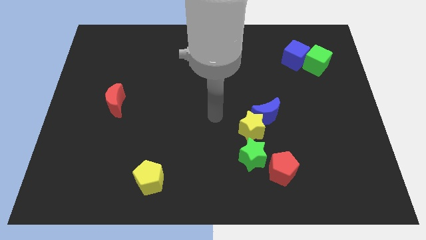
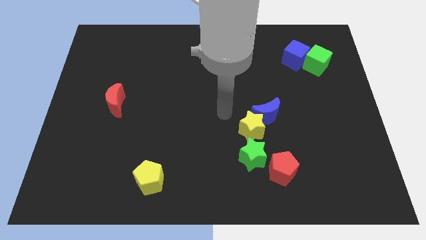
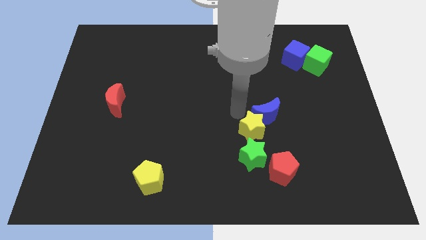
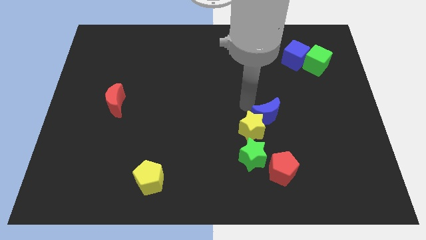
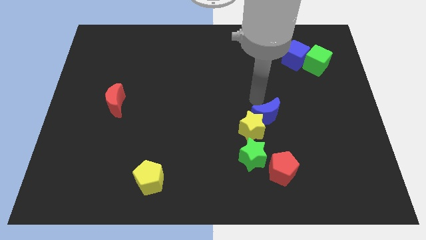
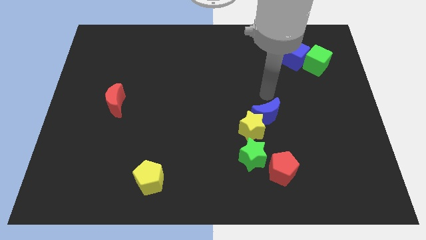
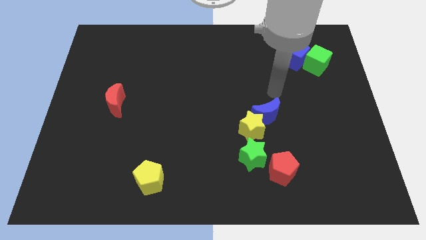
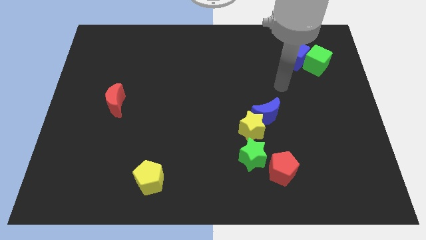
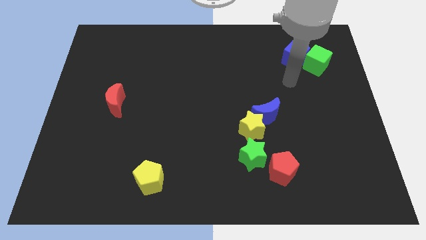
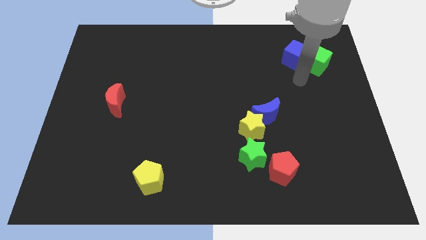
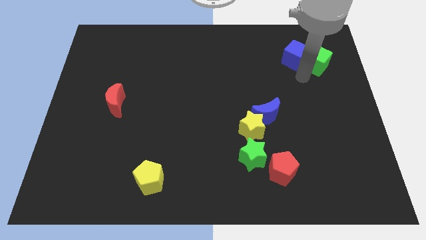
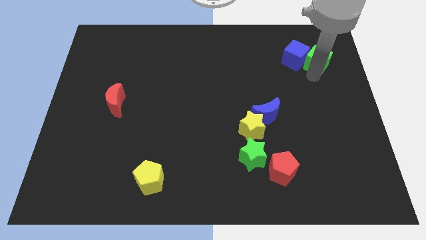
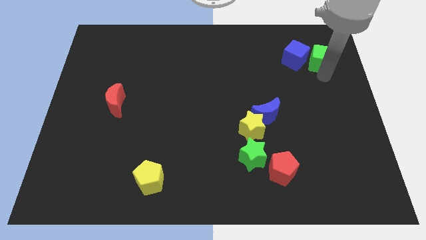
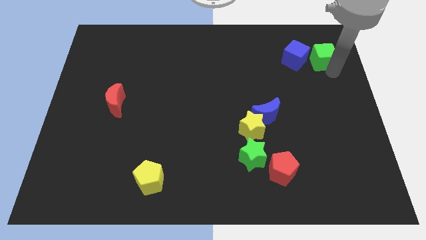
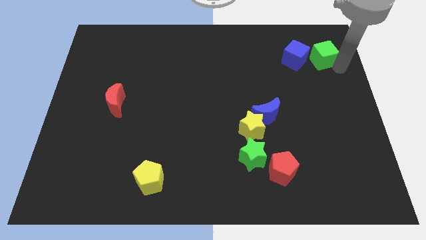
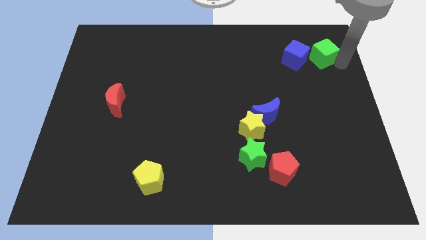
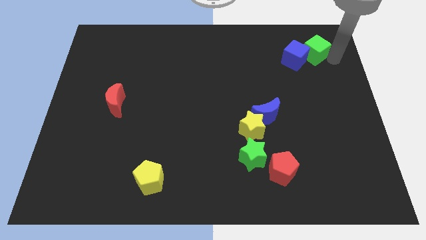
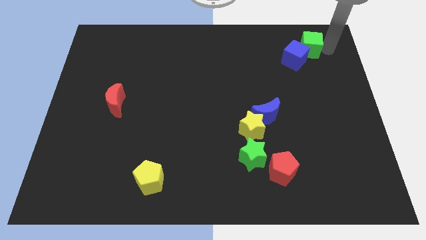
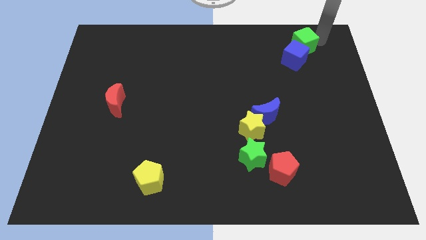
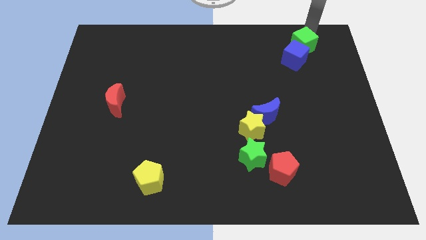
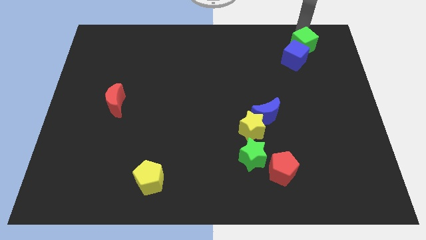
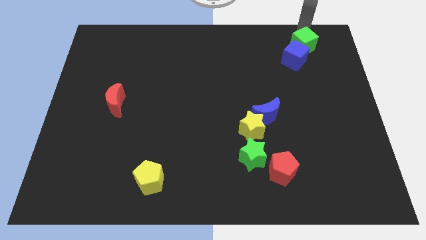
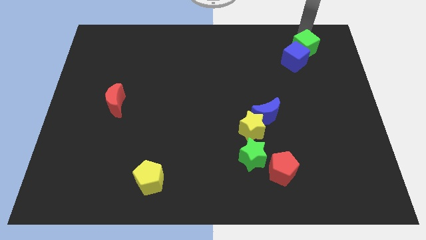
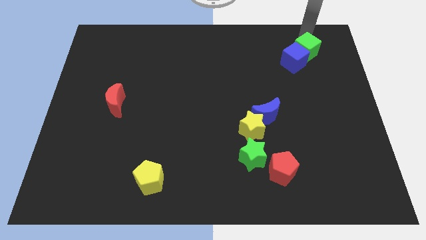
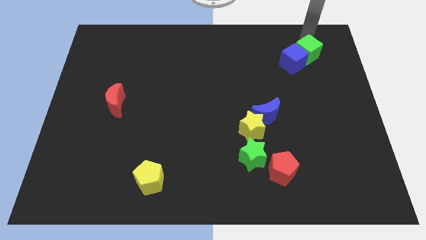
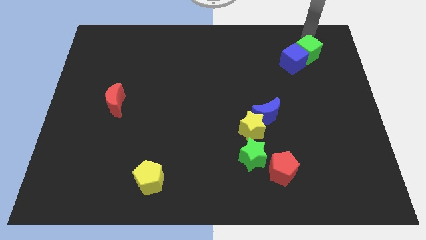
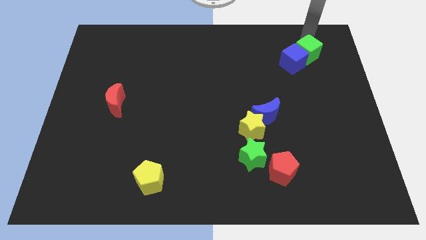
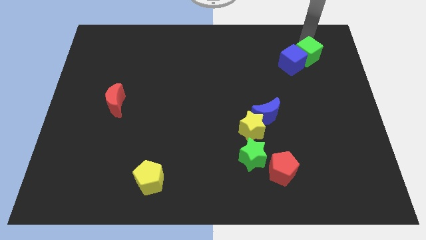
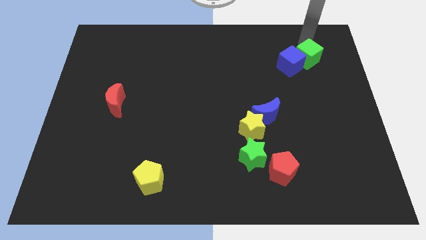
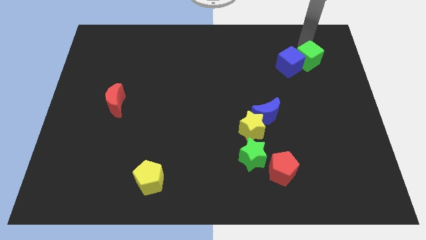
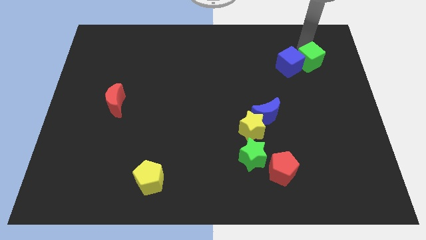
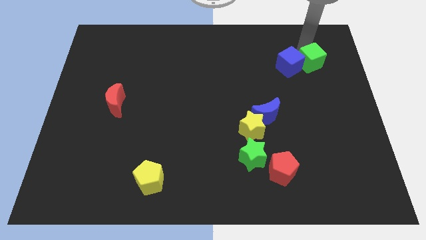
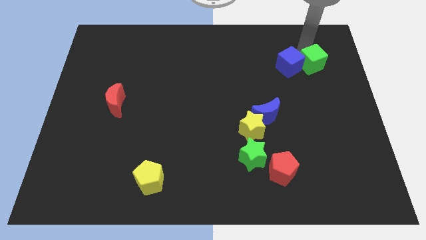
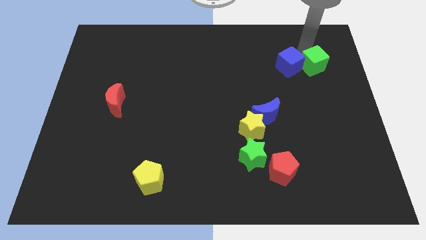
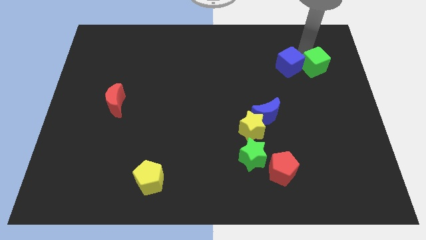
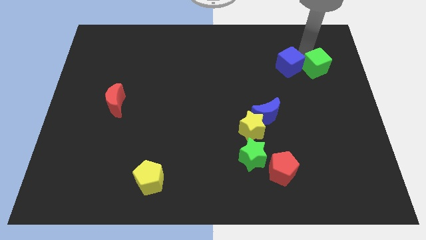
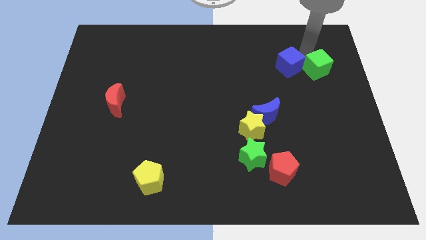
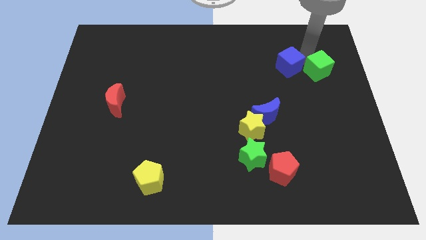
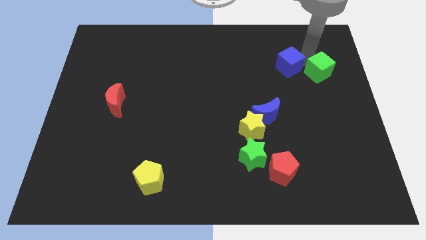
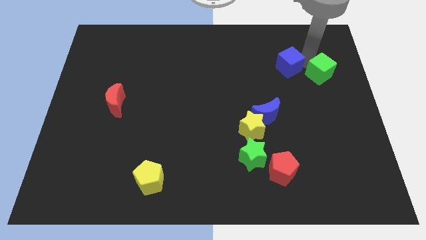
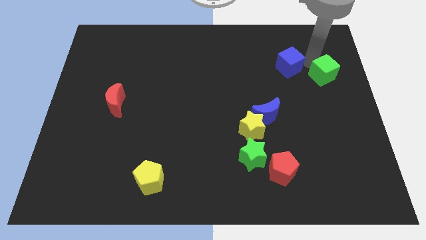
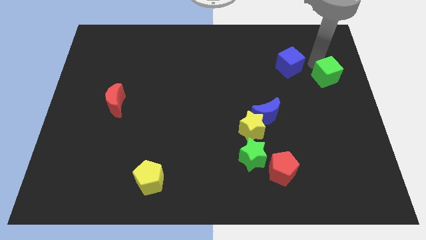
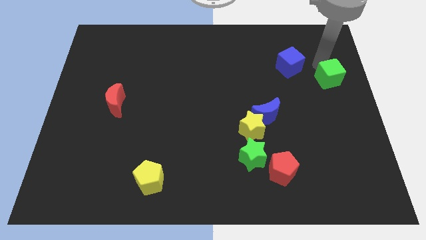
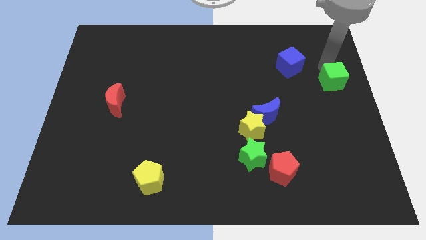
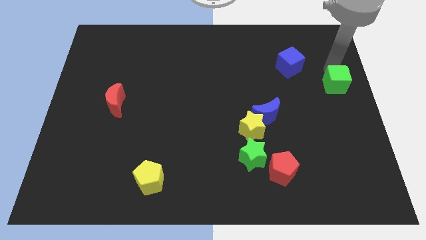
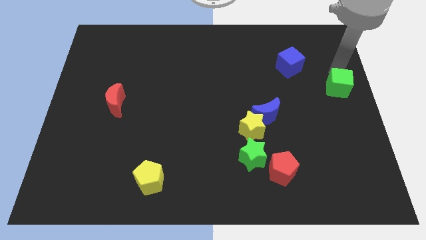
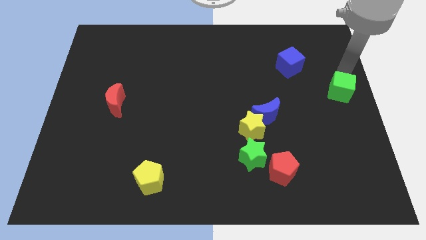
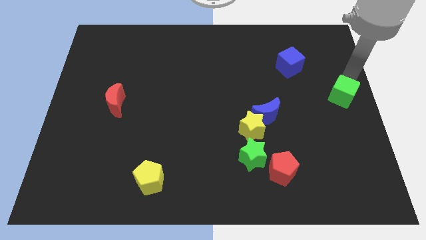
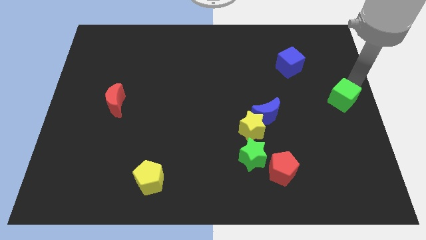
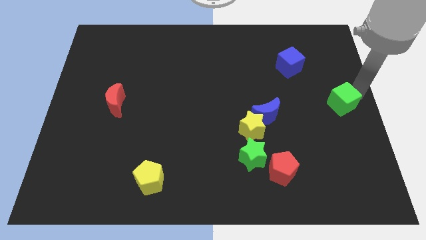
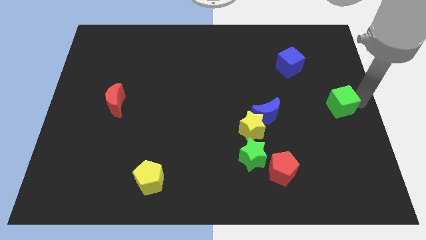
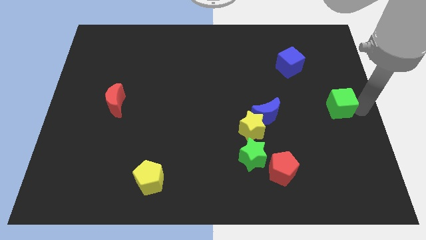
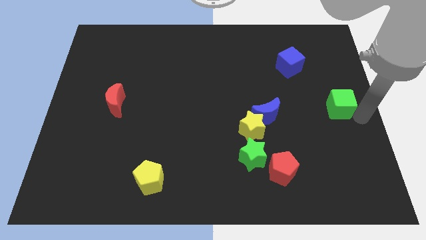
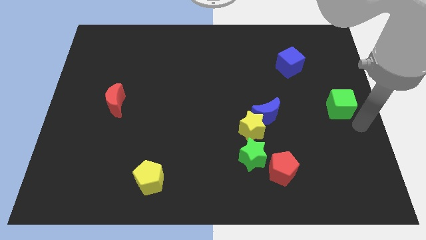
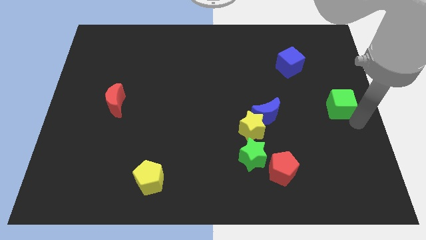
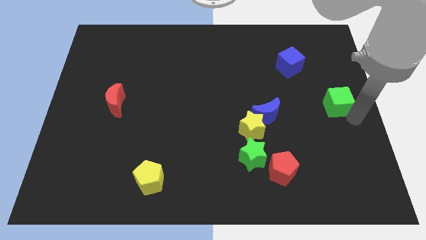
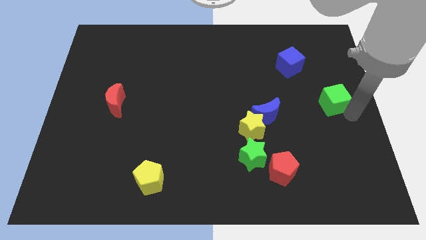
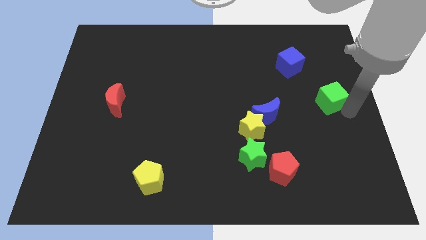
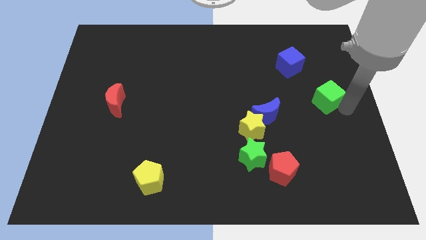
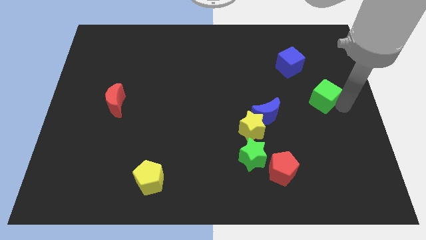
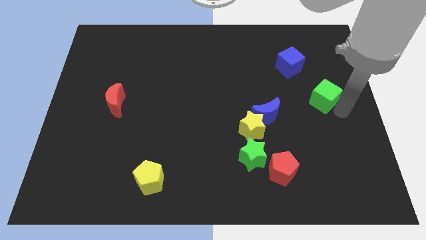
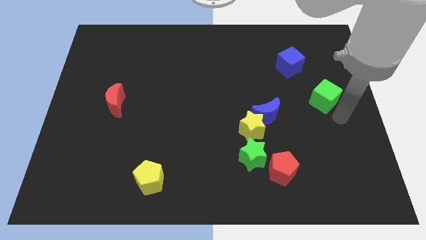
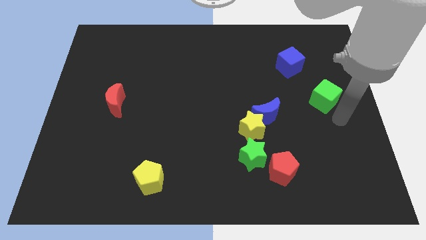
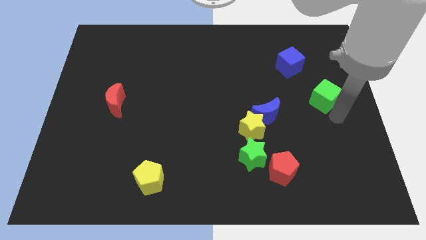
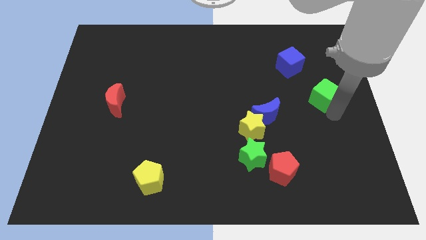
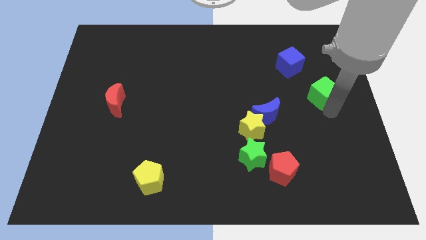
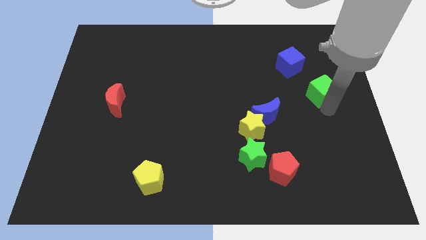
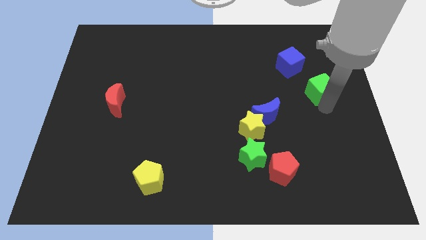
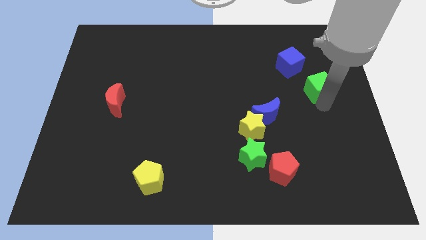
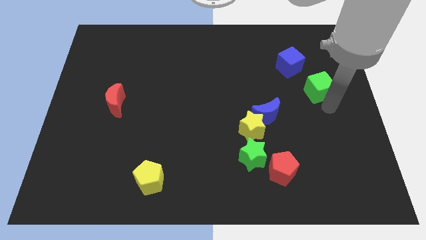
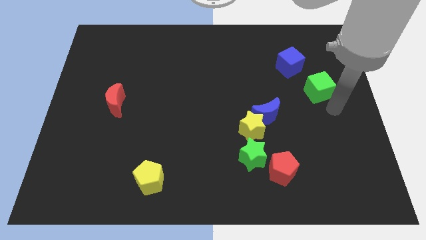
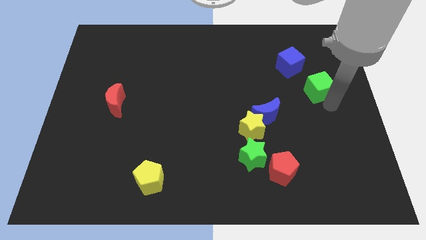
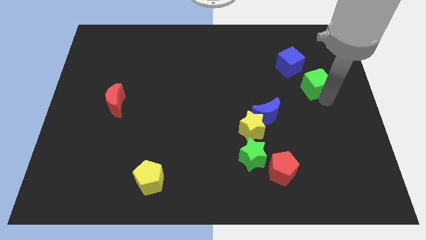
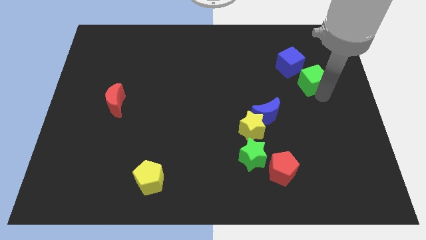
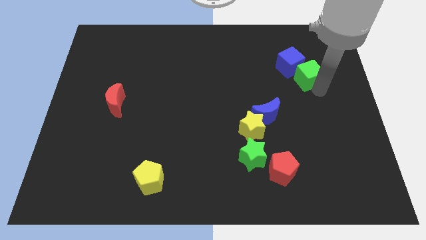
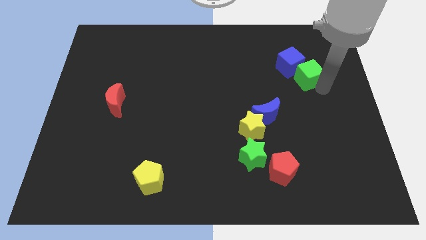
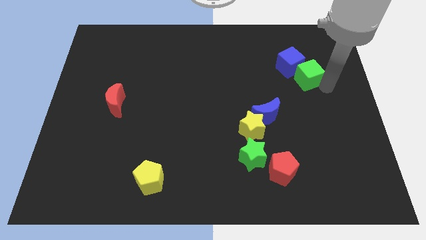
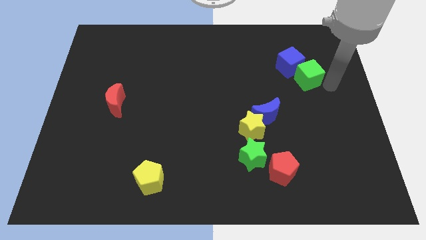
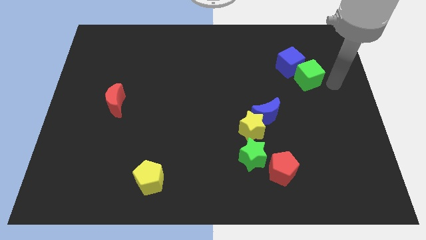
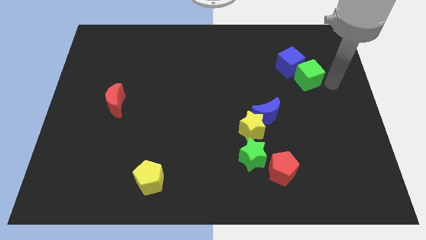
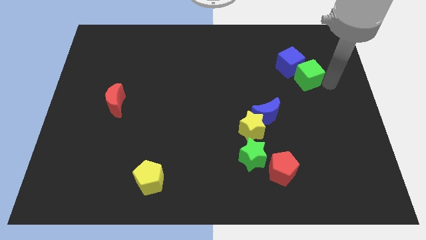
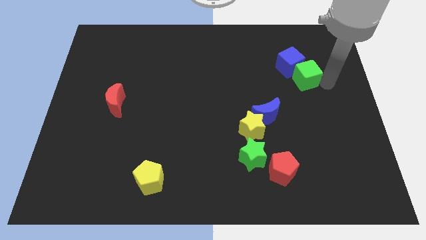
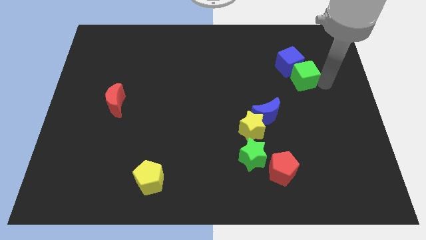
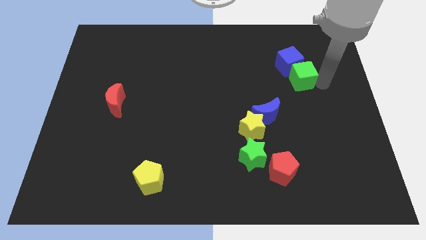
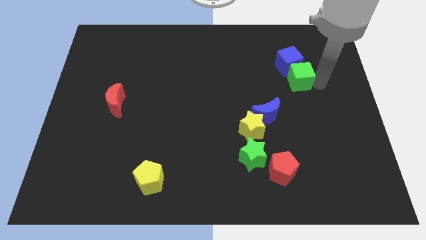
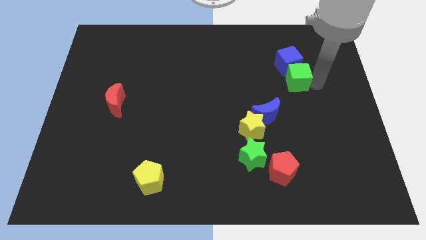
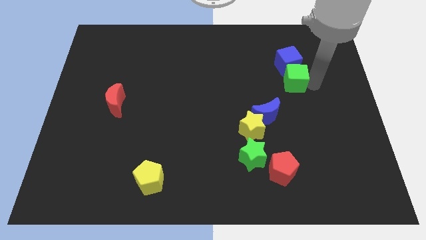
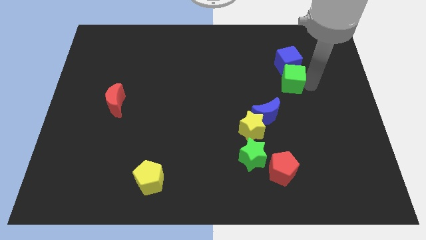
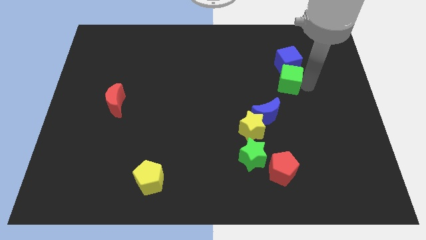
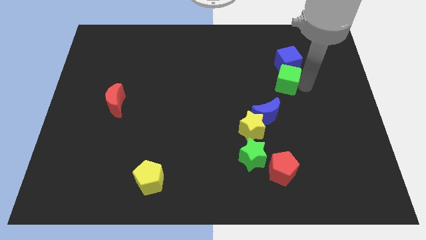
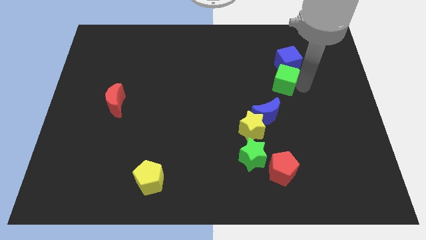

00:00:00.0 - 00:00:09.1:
slide the green cube a little bit to the left
